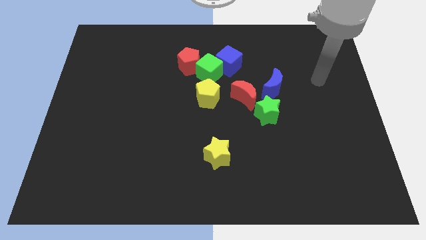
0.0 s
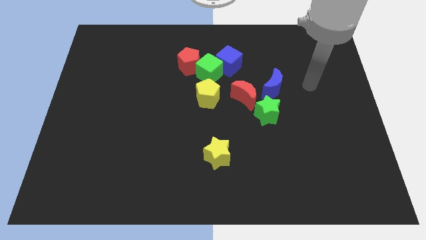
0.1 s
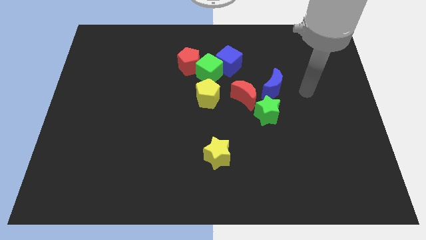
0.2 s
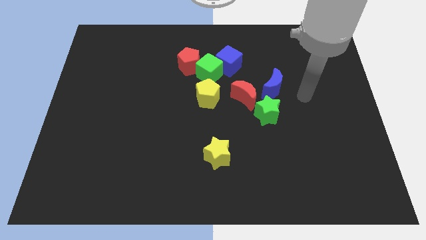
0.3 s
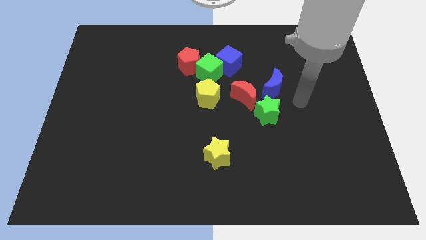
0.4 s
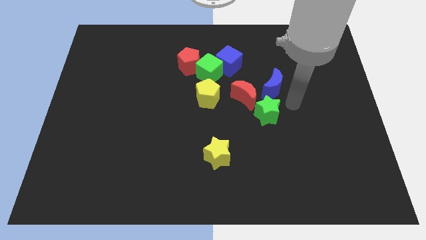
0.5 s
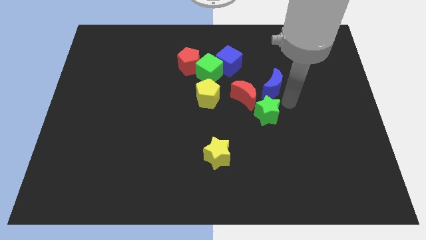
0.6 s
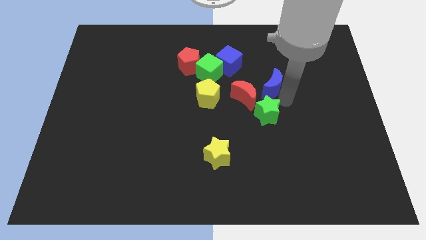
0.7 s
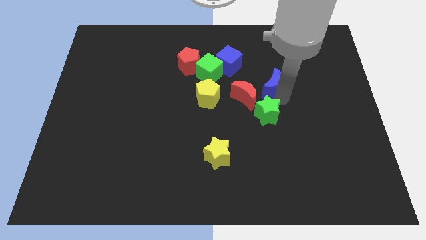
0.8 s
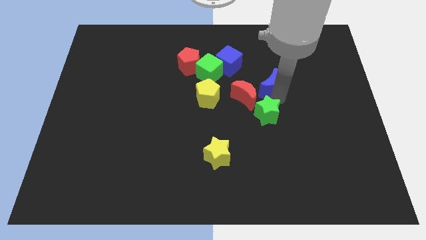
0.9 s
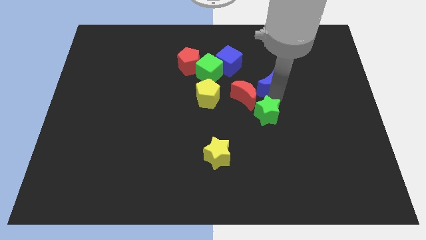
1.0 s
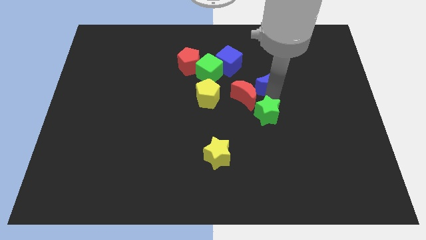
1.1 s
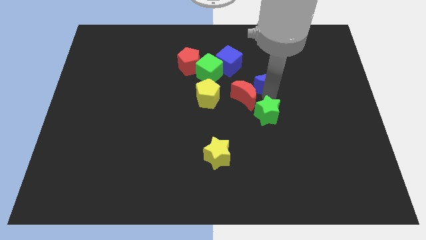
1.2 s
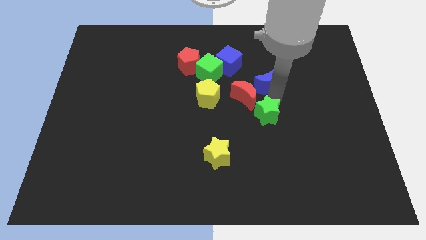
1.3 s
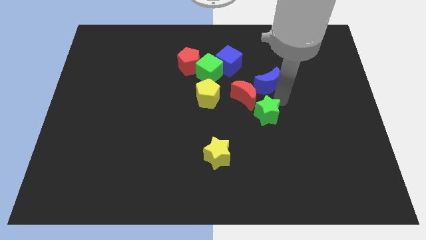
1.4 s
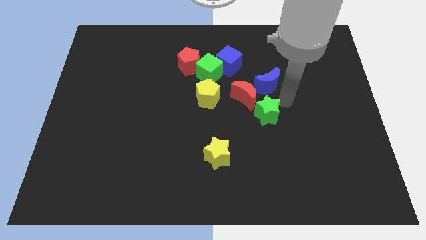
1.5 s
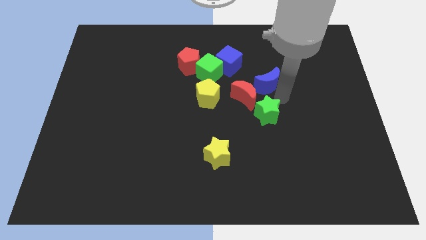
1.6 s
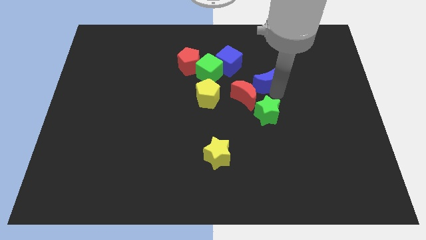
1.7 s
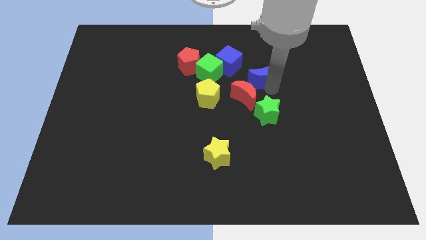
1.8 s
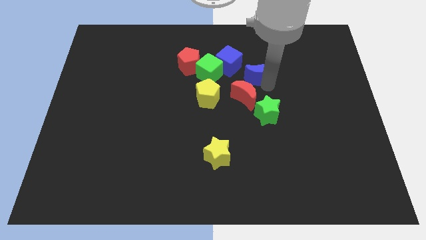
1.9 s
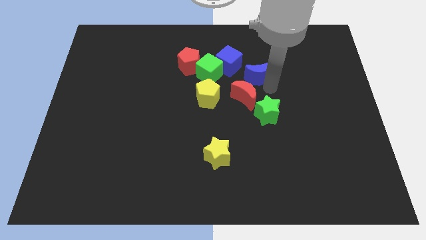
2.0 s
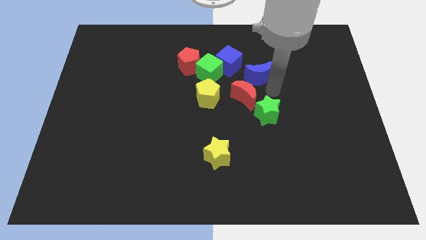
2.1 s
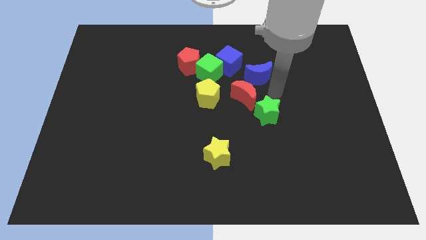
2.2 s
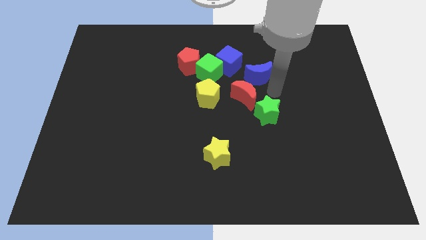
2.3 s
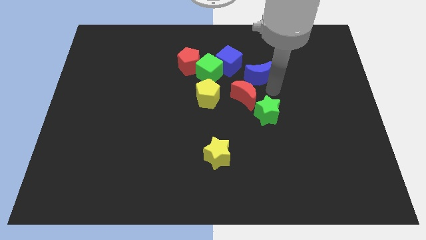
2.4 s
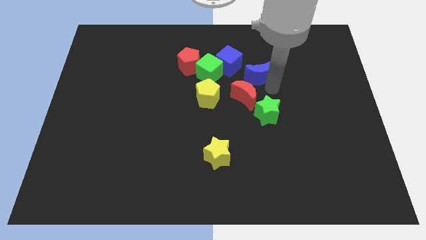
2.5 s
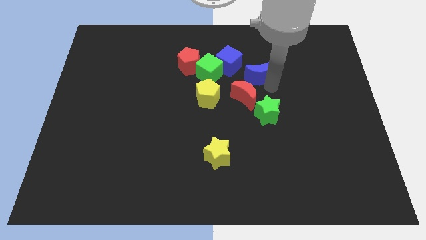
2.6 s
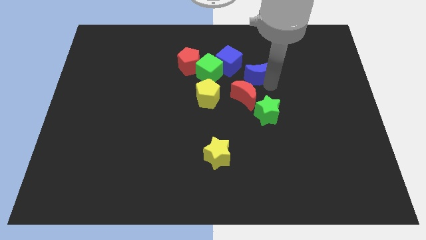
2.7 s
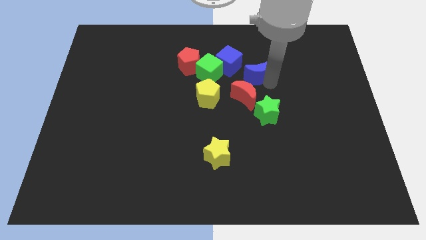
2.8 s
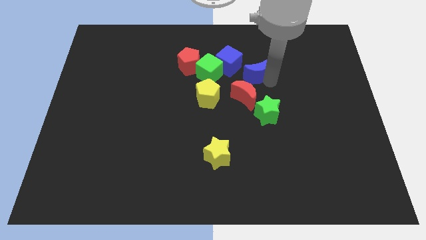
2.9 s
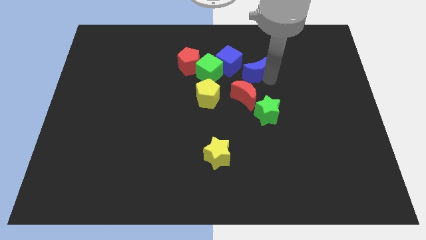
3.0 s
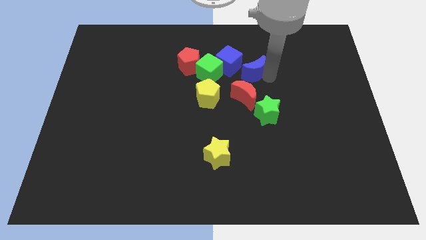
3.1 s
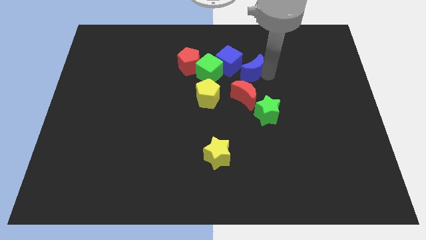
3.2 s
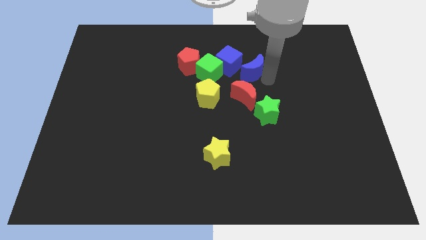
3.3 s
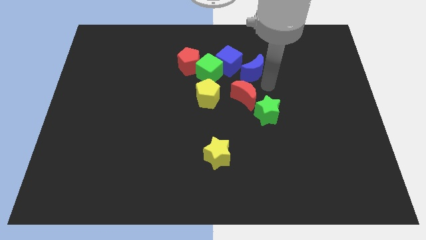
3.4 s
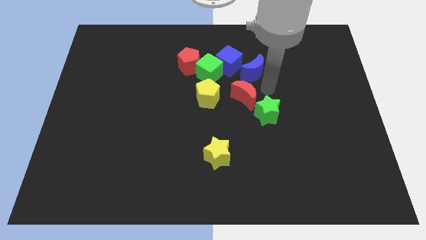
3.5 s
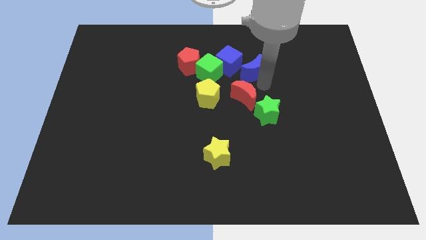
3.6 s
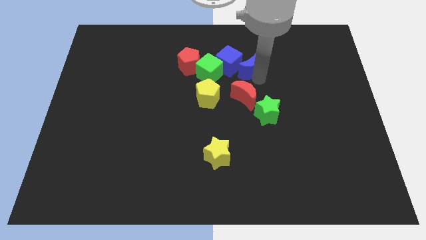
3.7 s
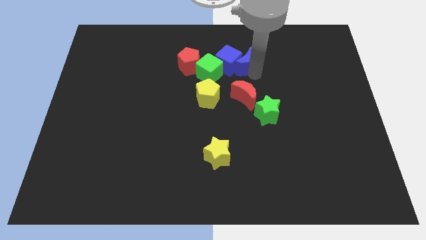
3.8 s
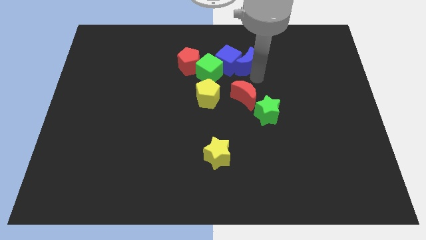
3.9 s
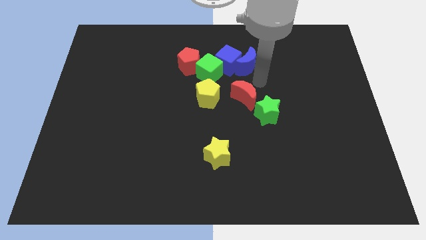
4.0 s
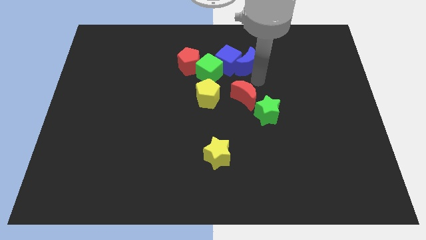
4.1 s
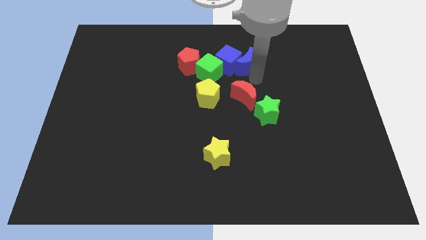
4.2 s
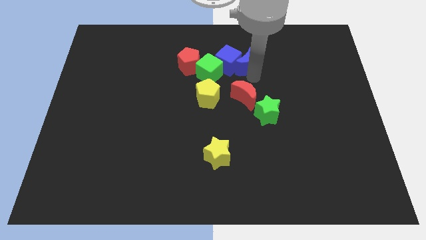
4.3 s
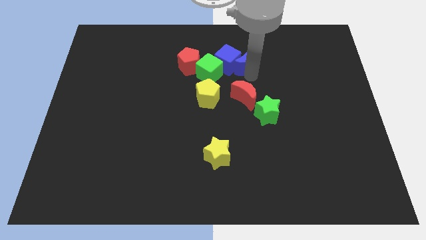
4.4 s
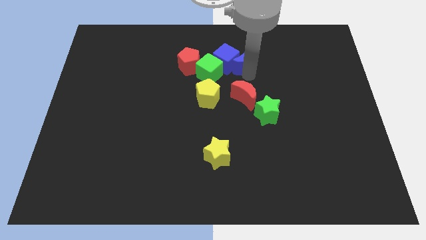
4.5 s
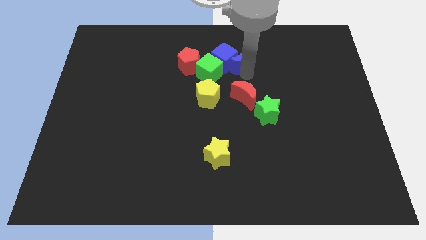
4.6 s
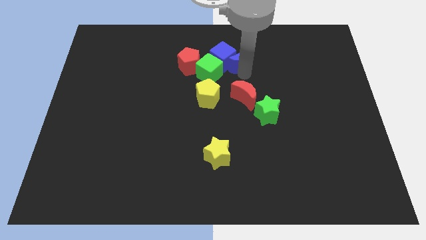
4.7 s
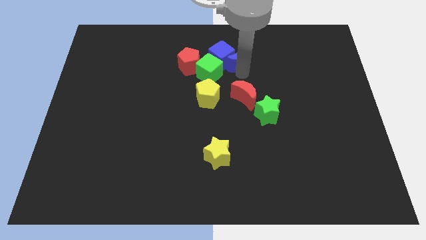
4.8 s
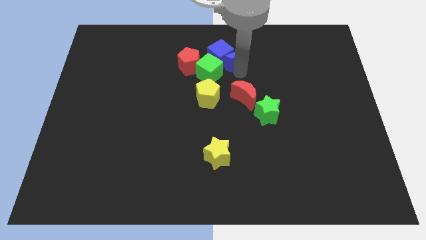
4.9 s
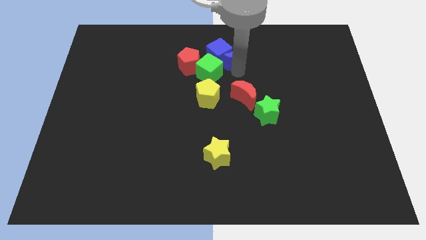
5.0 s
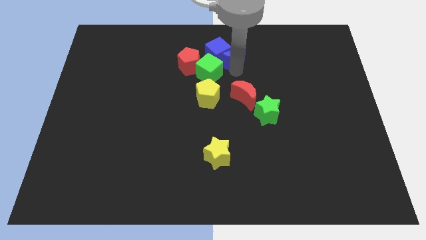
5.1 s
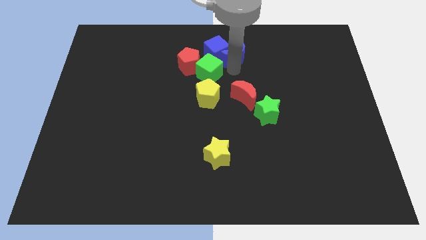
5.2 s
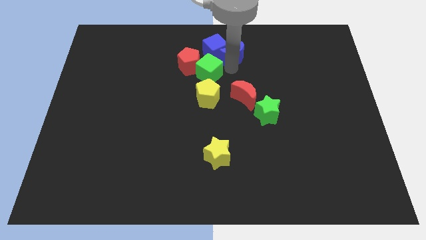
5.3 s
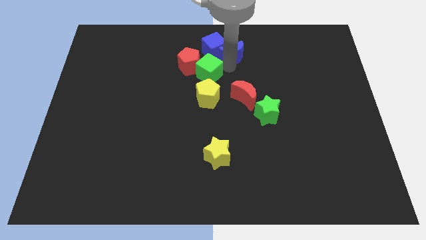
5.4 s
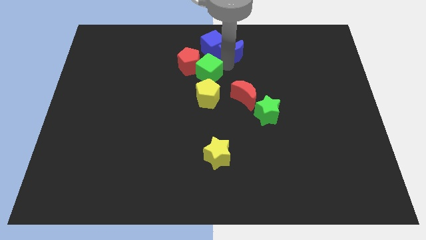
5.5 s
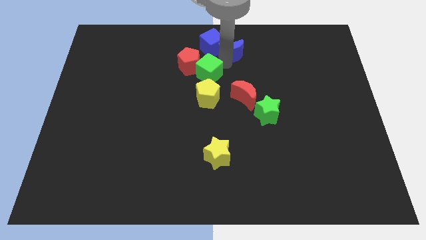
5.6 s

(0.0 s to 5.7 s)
slide the blue moon to the towards your base
